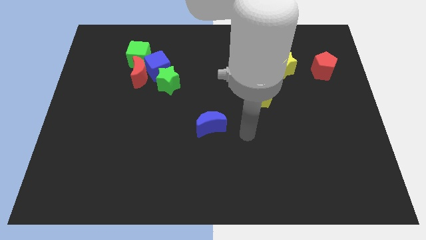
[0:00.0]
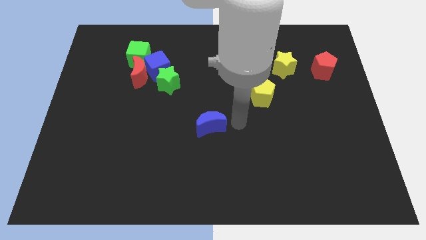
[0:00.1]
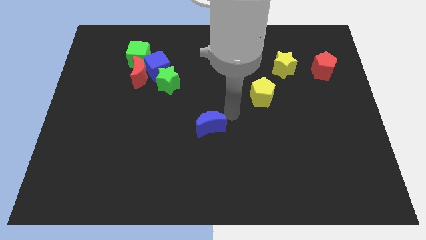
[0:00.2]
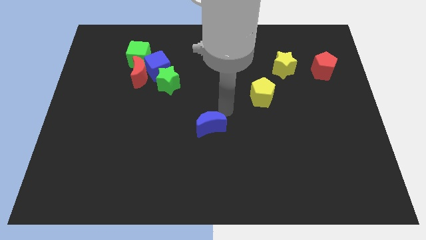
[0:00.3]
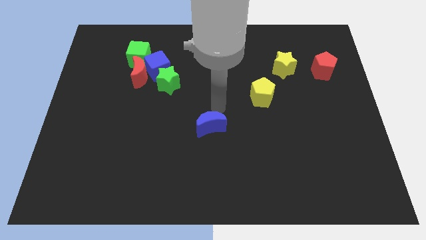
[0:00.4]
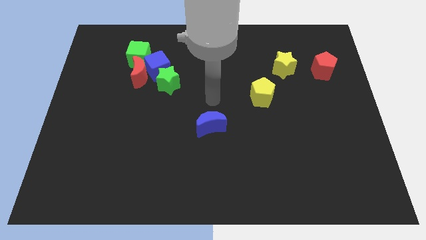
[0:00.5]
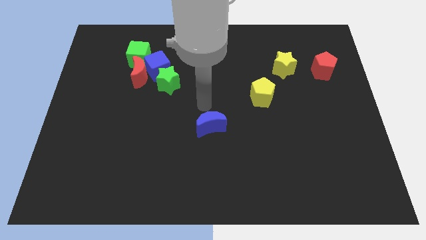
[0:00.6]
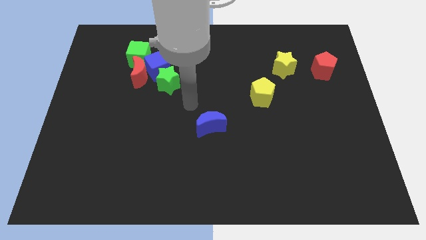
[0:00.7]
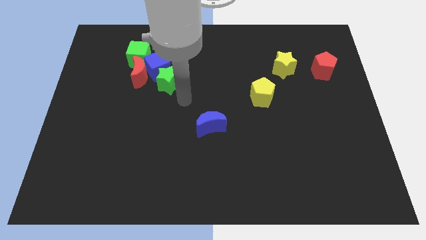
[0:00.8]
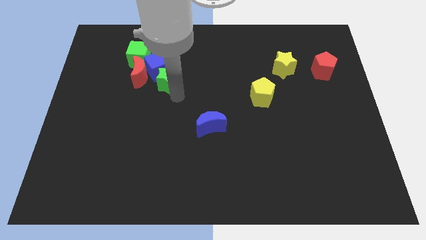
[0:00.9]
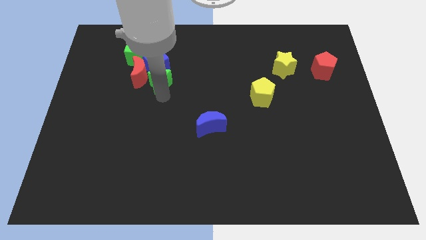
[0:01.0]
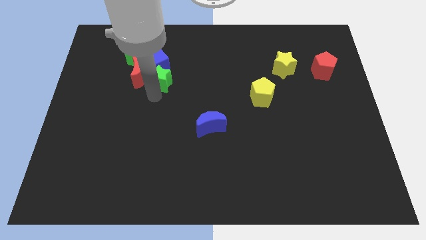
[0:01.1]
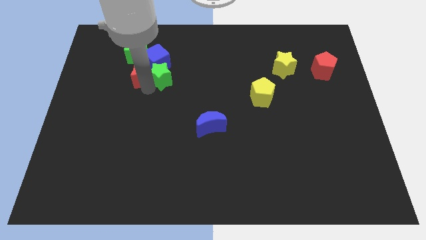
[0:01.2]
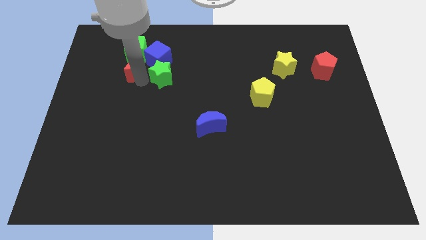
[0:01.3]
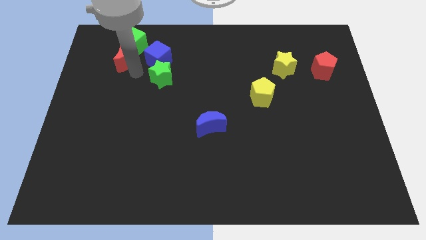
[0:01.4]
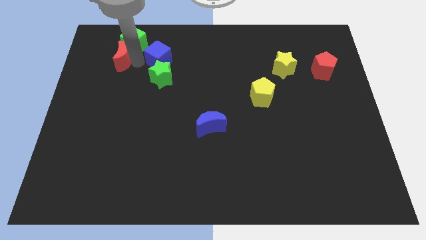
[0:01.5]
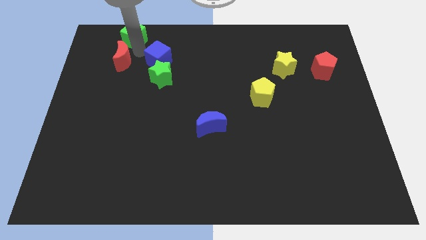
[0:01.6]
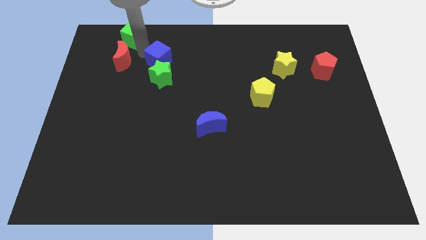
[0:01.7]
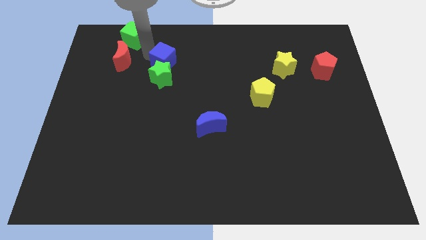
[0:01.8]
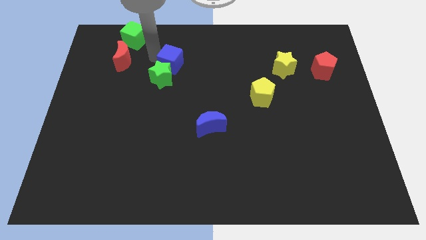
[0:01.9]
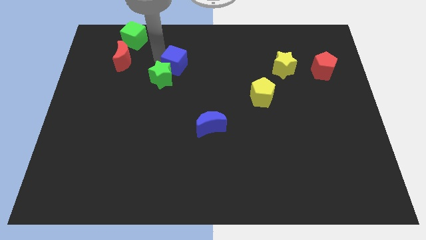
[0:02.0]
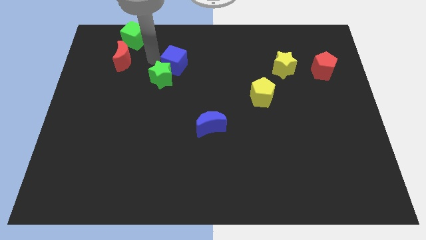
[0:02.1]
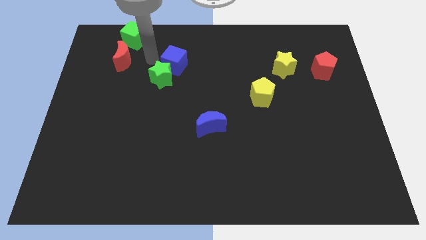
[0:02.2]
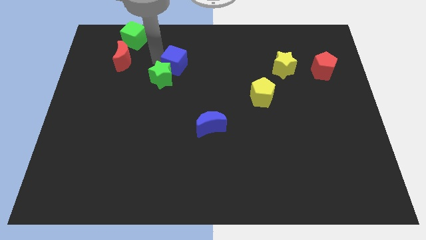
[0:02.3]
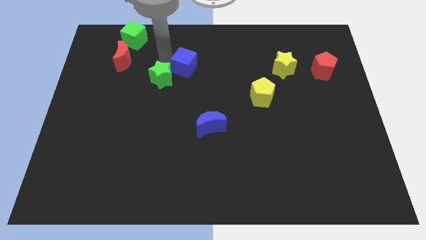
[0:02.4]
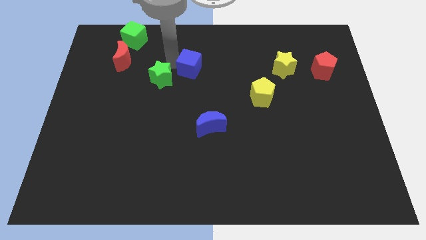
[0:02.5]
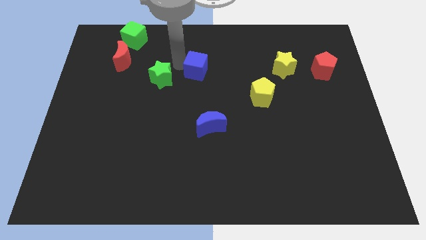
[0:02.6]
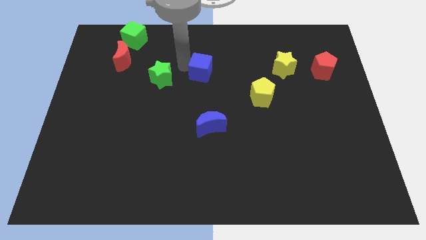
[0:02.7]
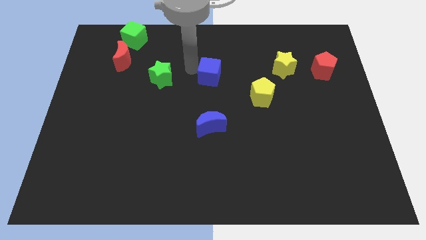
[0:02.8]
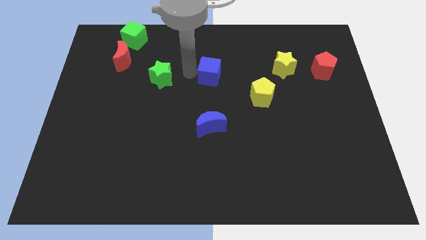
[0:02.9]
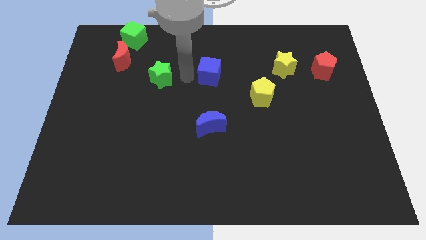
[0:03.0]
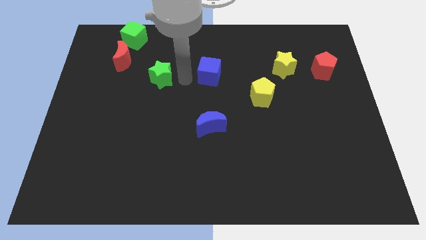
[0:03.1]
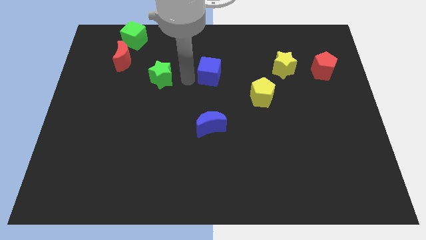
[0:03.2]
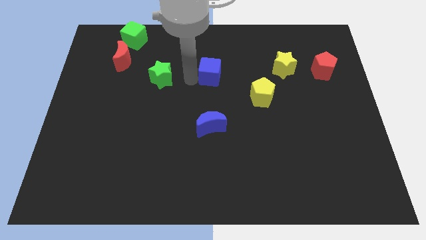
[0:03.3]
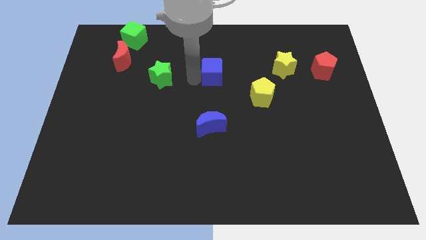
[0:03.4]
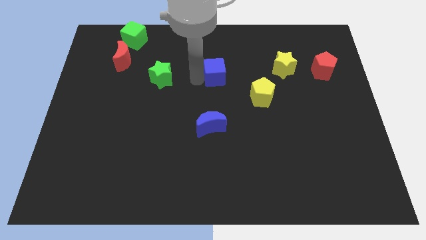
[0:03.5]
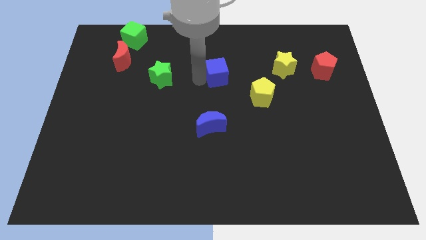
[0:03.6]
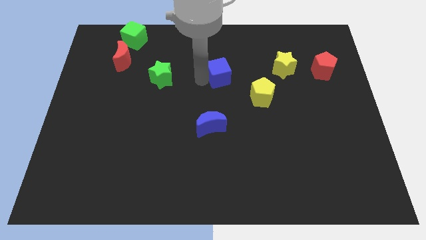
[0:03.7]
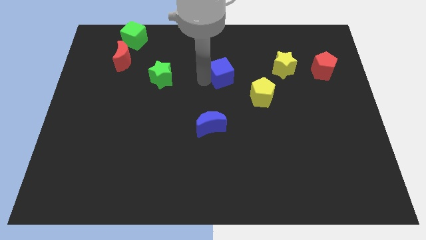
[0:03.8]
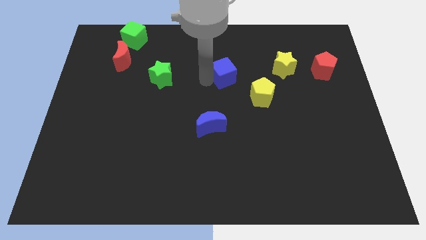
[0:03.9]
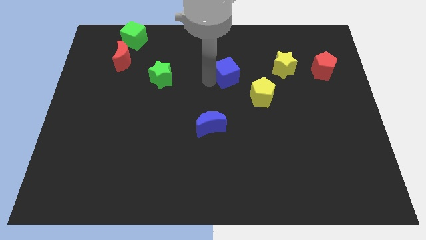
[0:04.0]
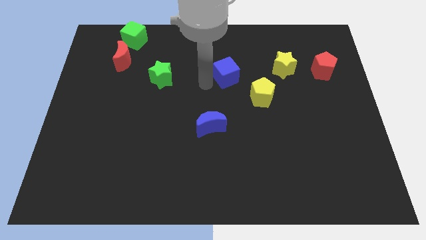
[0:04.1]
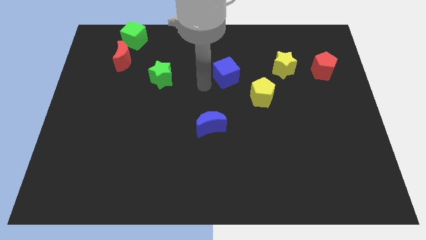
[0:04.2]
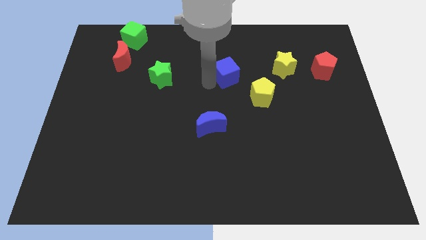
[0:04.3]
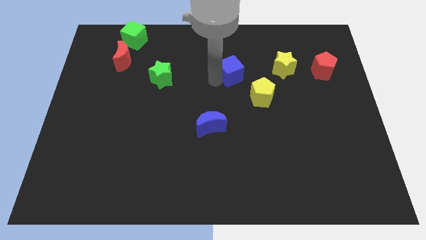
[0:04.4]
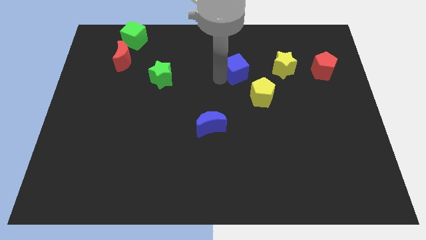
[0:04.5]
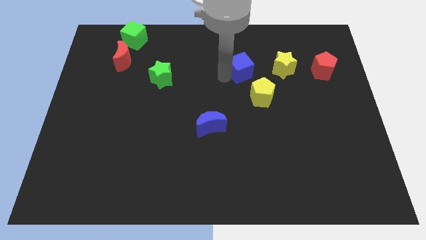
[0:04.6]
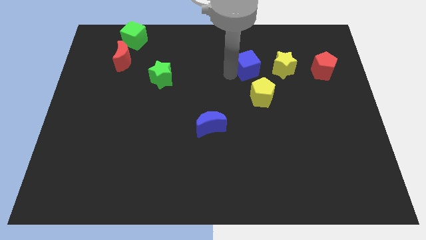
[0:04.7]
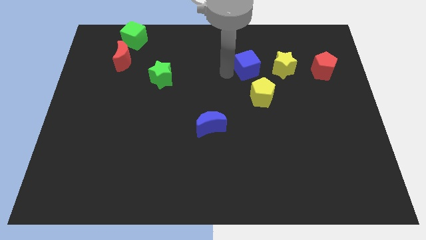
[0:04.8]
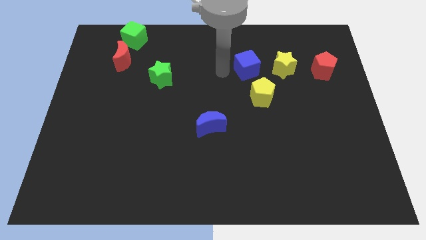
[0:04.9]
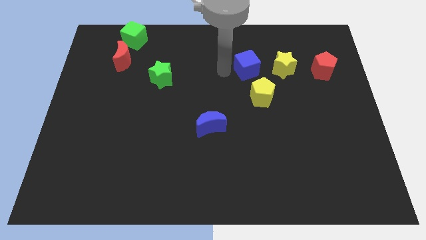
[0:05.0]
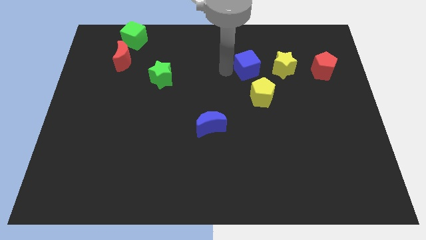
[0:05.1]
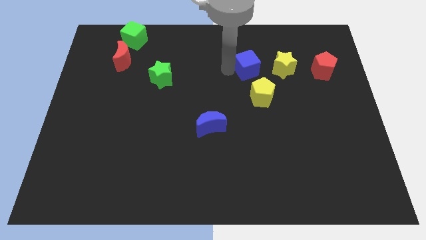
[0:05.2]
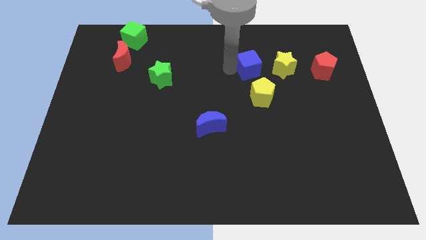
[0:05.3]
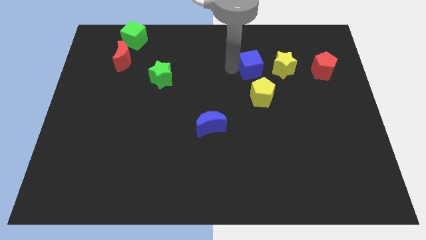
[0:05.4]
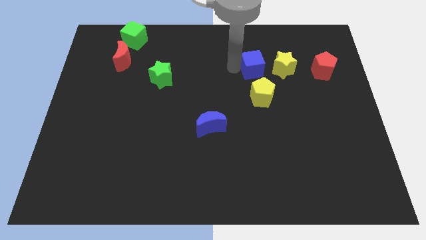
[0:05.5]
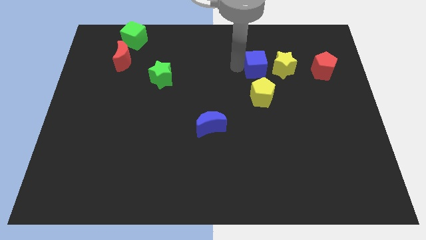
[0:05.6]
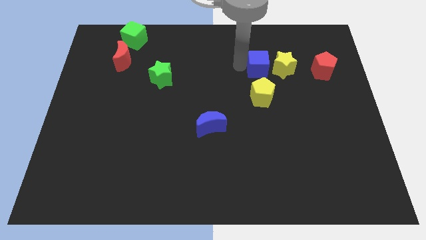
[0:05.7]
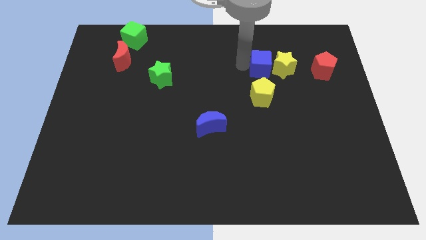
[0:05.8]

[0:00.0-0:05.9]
move the blue cube towards the yellow star

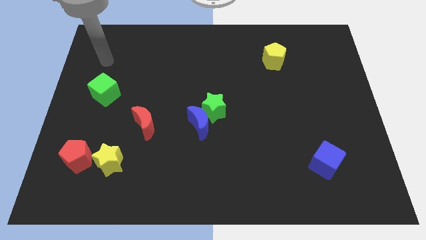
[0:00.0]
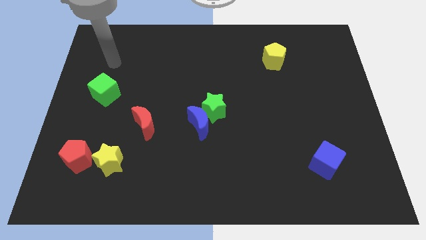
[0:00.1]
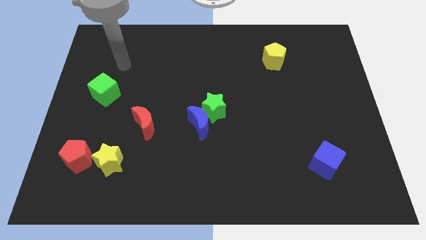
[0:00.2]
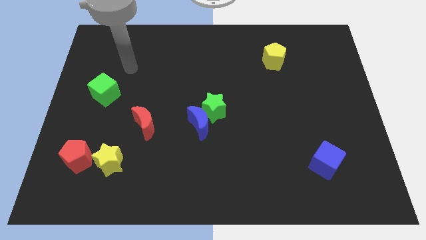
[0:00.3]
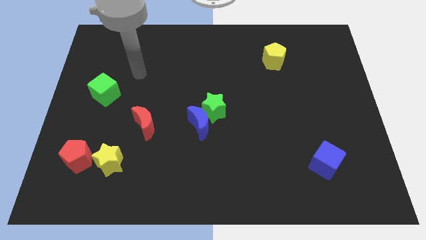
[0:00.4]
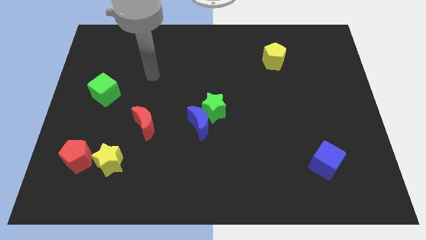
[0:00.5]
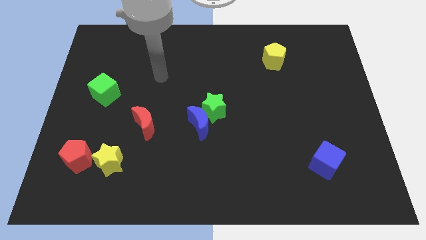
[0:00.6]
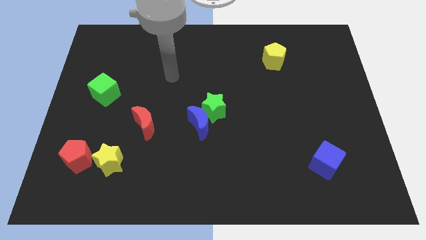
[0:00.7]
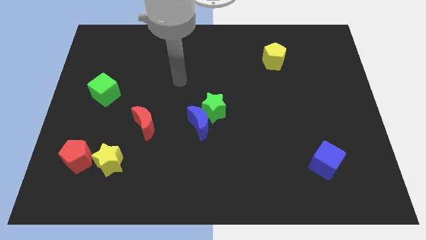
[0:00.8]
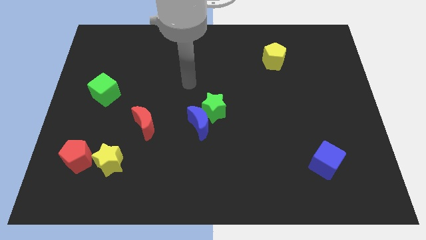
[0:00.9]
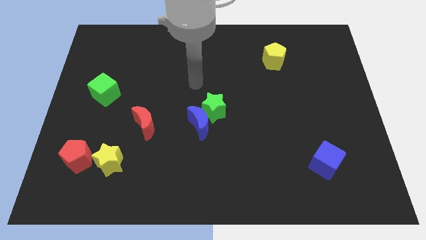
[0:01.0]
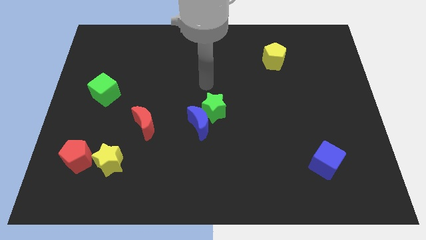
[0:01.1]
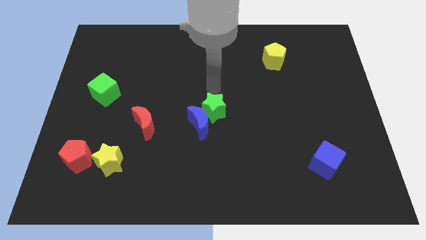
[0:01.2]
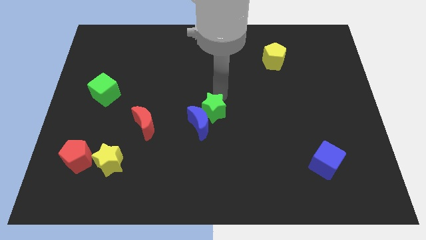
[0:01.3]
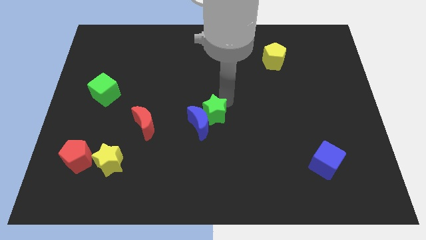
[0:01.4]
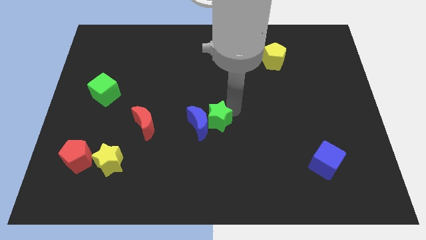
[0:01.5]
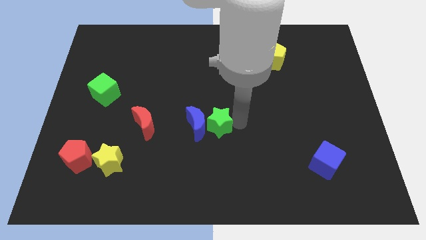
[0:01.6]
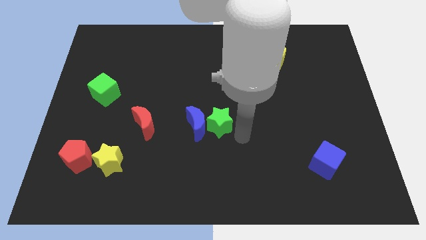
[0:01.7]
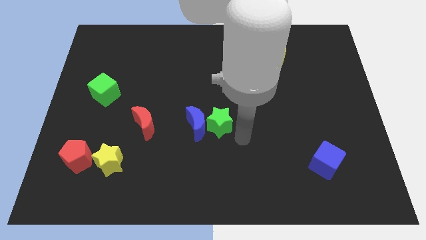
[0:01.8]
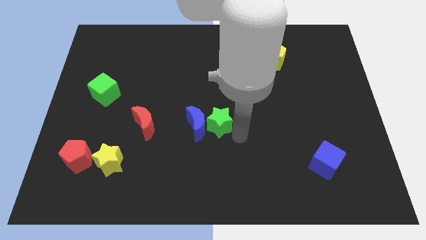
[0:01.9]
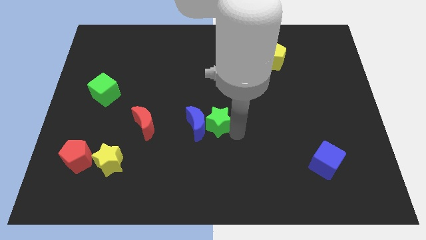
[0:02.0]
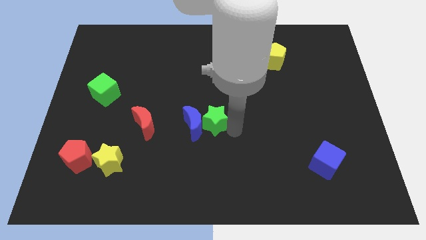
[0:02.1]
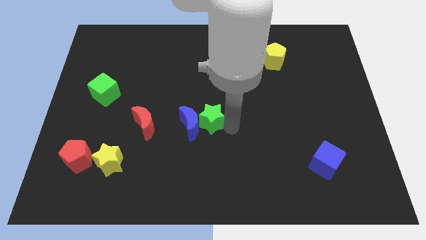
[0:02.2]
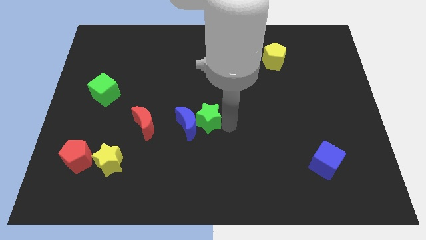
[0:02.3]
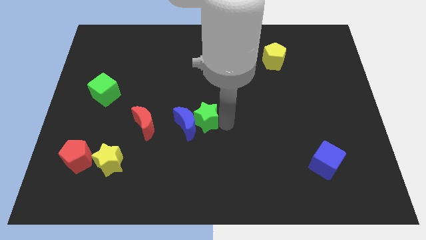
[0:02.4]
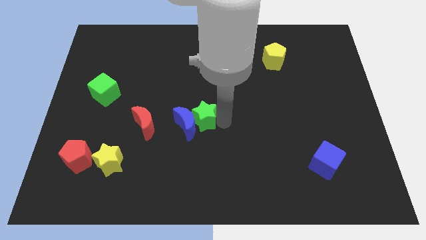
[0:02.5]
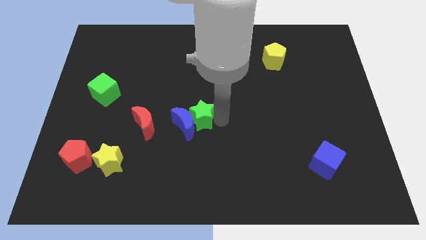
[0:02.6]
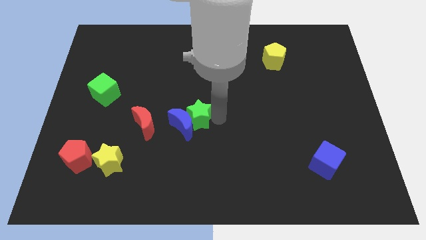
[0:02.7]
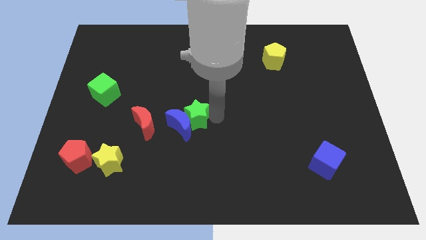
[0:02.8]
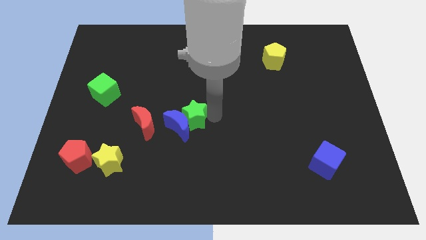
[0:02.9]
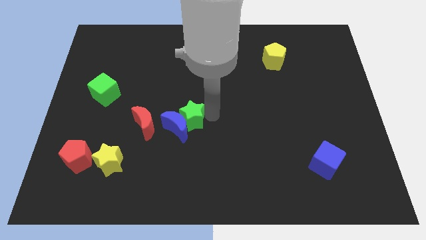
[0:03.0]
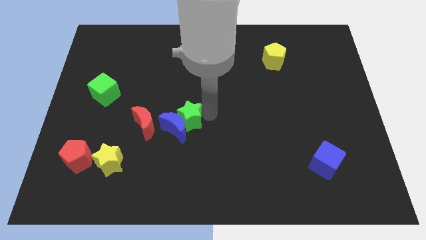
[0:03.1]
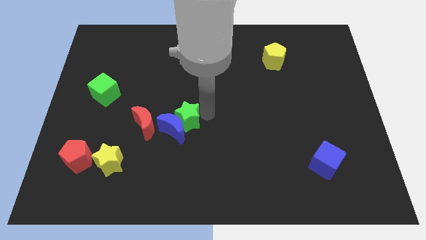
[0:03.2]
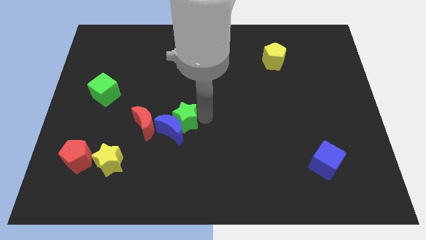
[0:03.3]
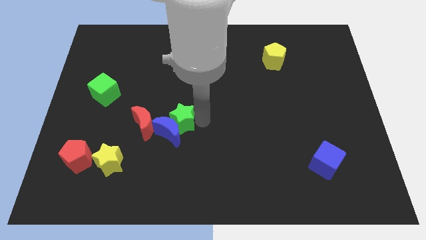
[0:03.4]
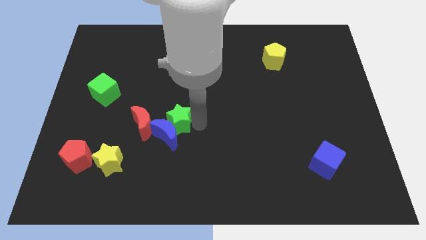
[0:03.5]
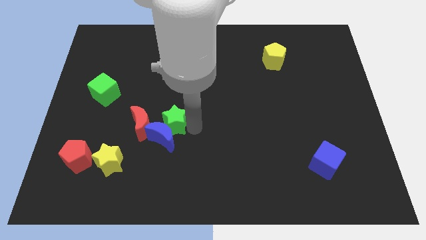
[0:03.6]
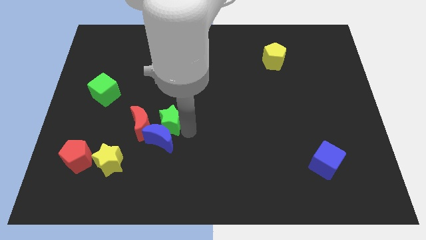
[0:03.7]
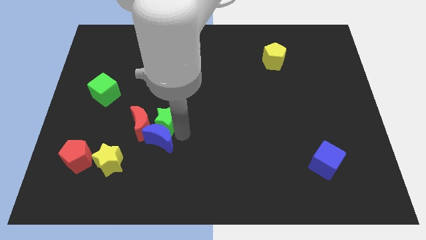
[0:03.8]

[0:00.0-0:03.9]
move the green star close to the red moon
